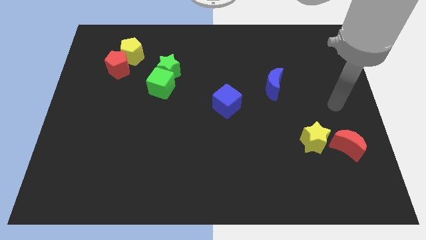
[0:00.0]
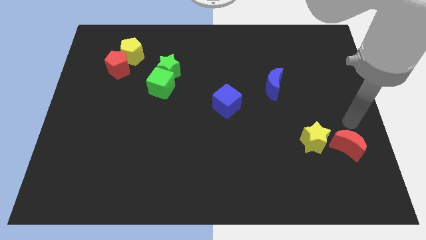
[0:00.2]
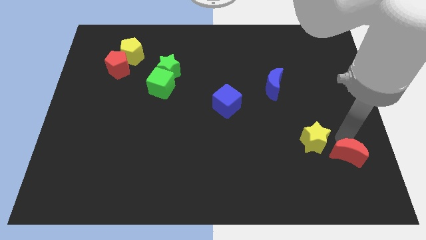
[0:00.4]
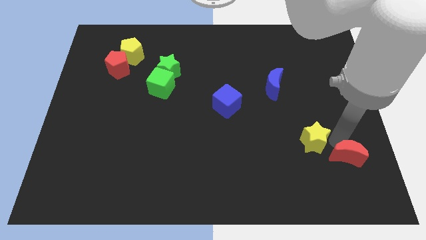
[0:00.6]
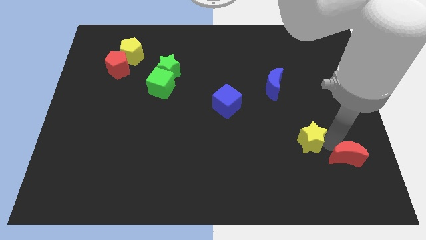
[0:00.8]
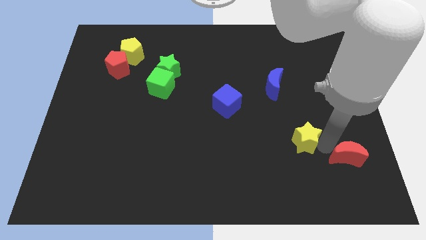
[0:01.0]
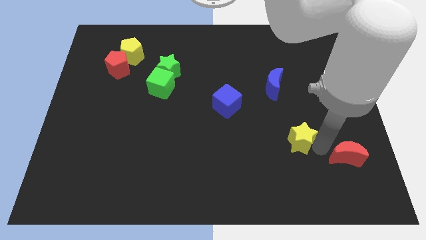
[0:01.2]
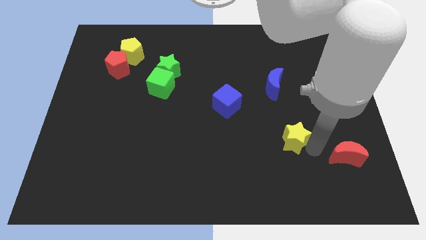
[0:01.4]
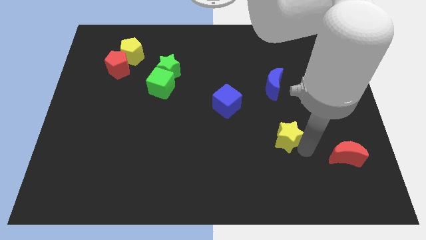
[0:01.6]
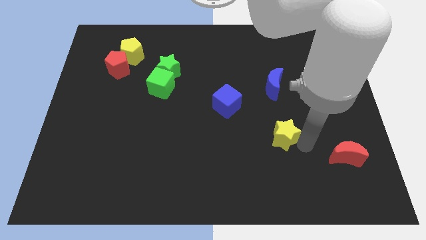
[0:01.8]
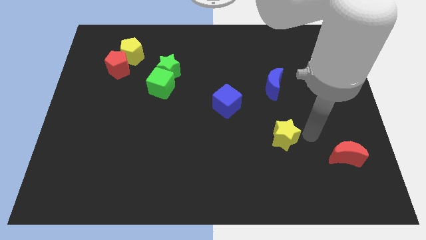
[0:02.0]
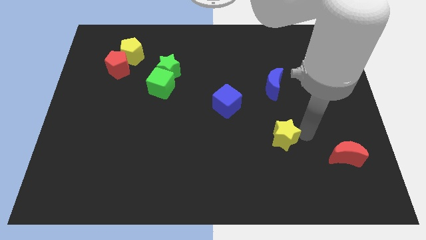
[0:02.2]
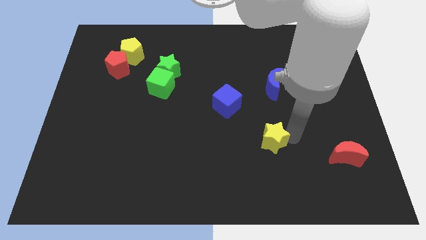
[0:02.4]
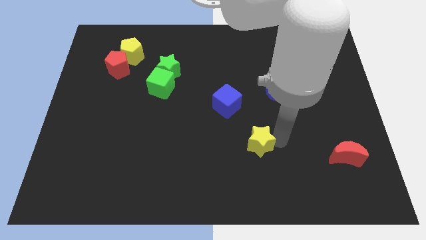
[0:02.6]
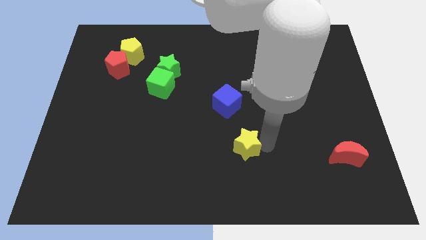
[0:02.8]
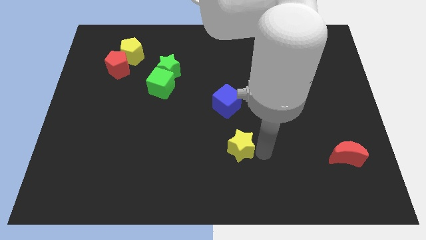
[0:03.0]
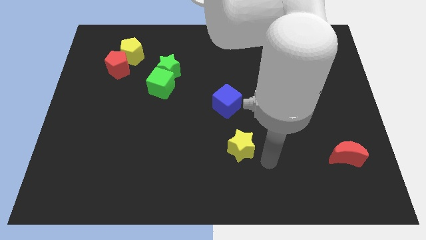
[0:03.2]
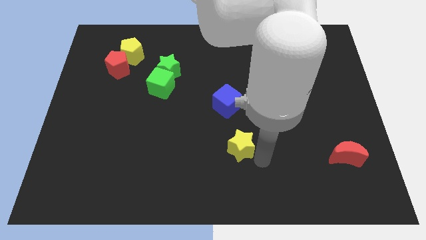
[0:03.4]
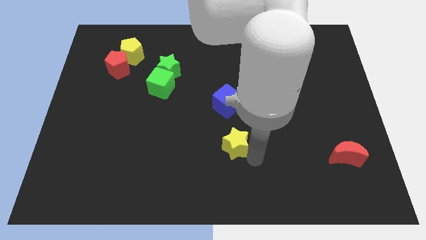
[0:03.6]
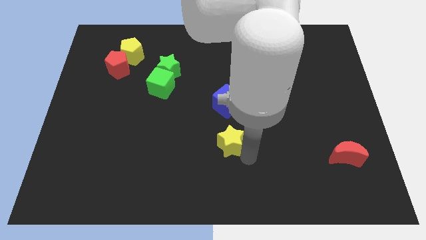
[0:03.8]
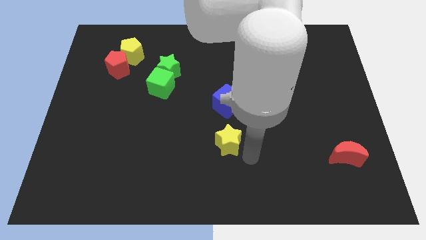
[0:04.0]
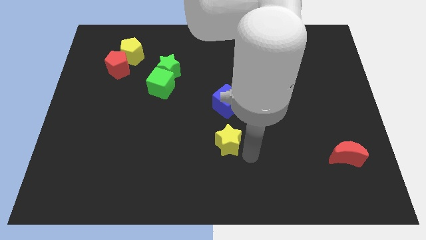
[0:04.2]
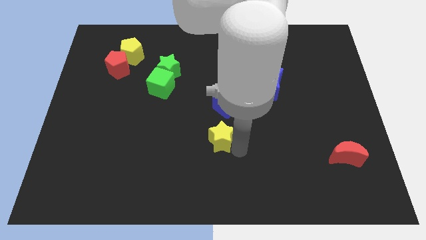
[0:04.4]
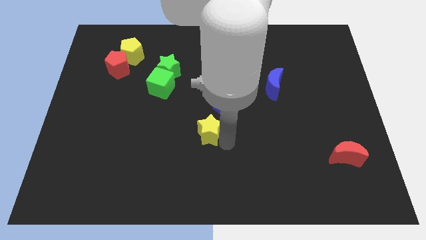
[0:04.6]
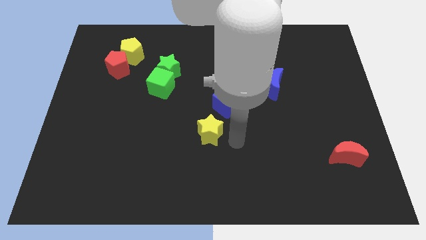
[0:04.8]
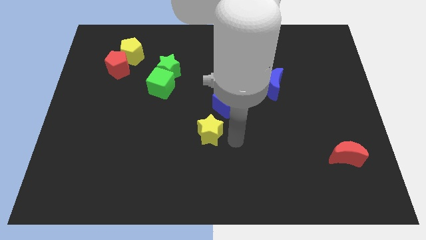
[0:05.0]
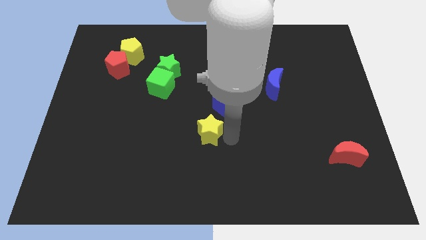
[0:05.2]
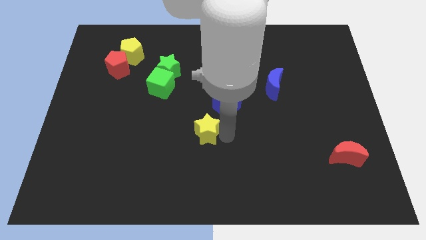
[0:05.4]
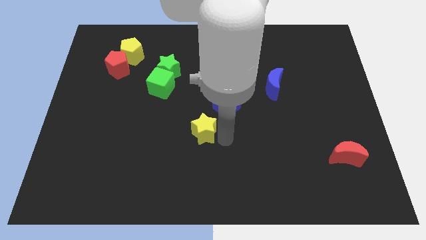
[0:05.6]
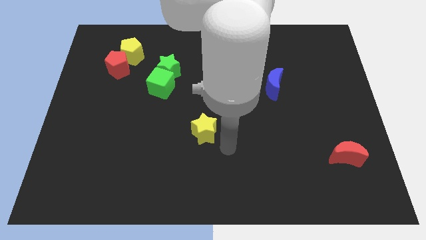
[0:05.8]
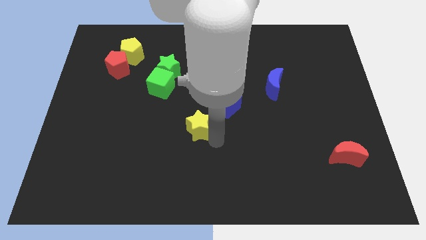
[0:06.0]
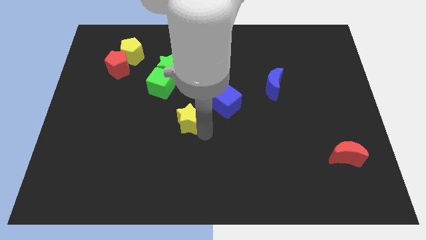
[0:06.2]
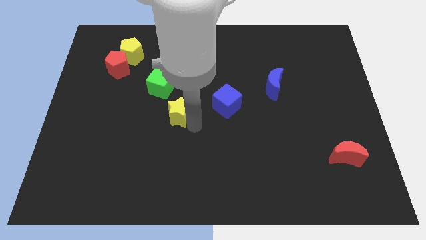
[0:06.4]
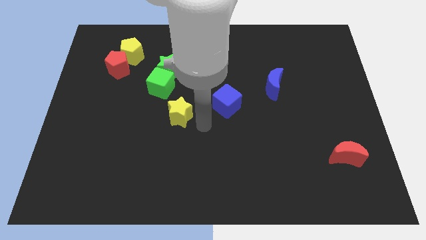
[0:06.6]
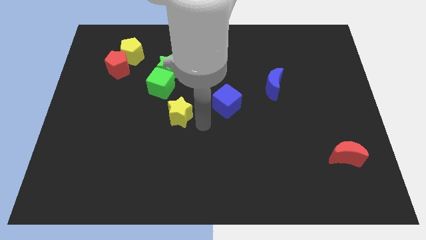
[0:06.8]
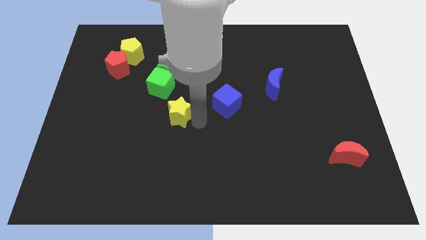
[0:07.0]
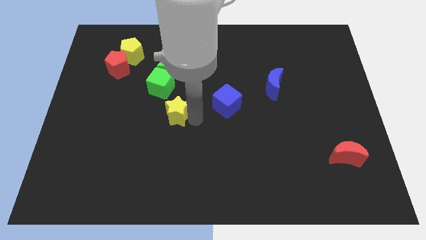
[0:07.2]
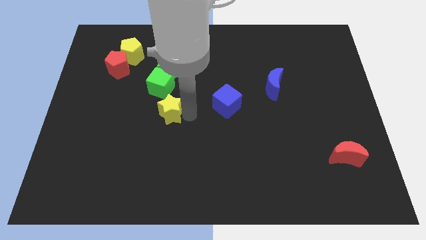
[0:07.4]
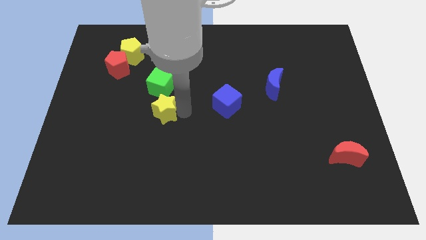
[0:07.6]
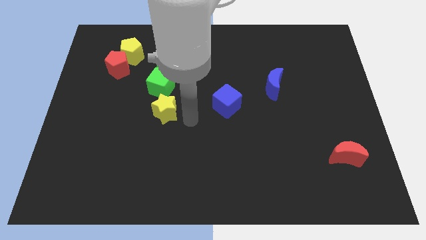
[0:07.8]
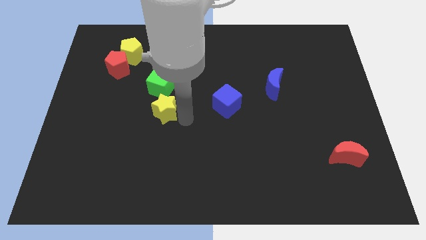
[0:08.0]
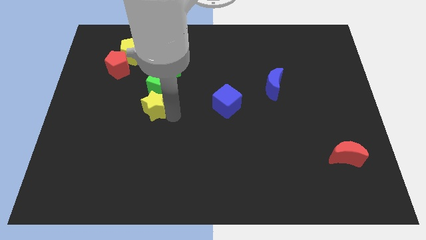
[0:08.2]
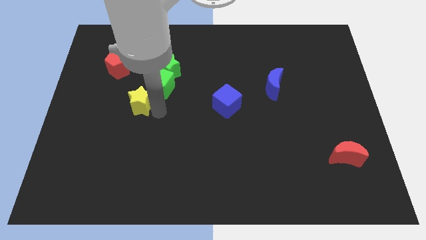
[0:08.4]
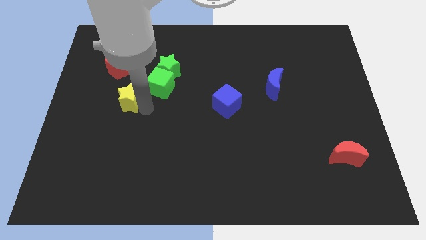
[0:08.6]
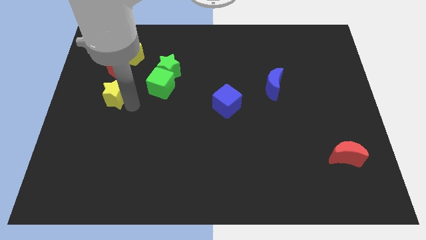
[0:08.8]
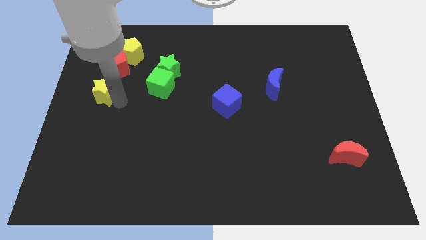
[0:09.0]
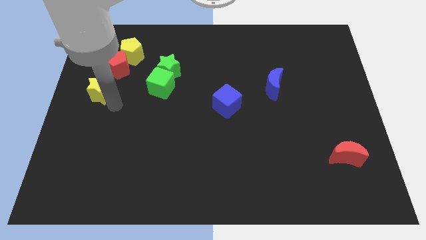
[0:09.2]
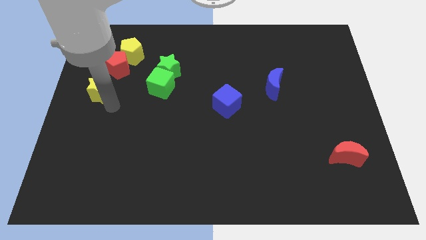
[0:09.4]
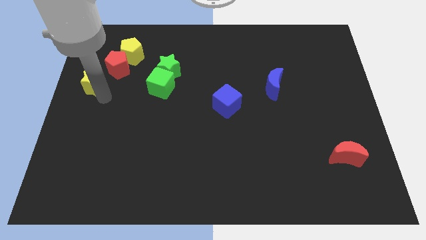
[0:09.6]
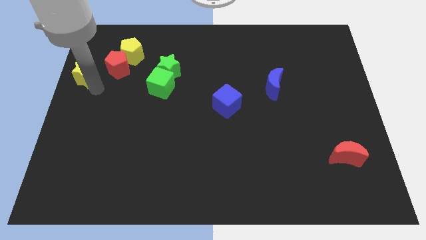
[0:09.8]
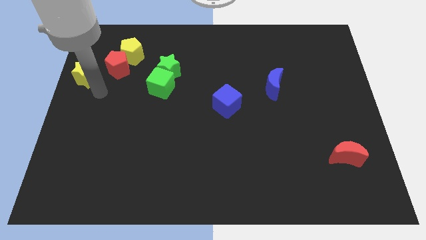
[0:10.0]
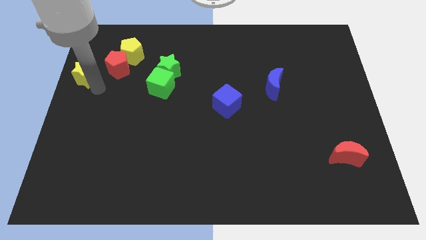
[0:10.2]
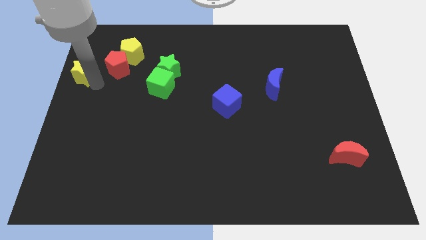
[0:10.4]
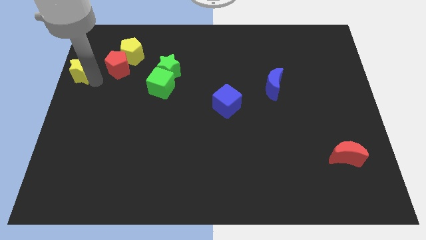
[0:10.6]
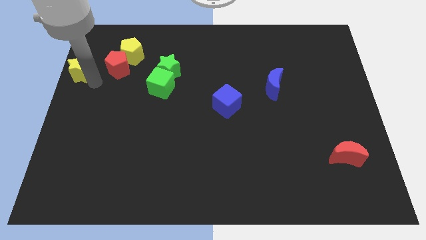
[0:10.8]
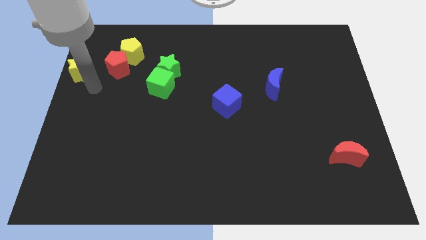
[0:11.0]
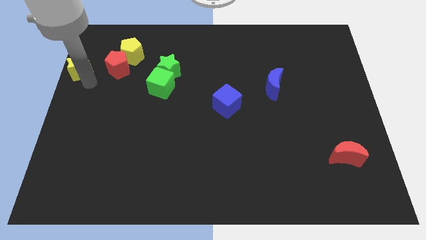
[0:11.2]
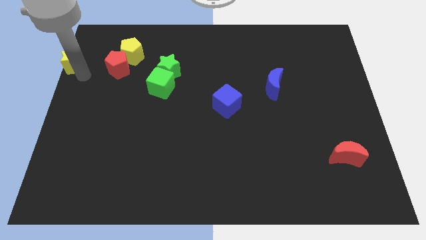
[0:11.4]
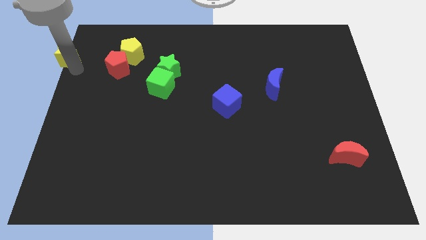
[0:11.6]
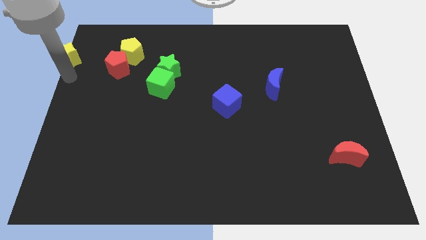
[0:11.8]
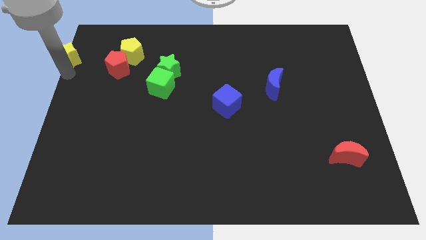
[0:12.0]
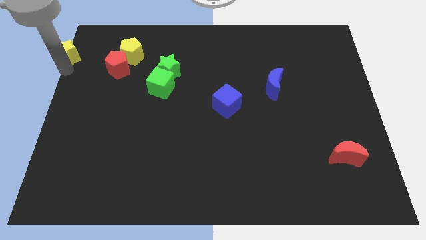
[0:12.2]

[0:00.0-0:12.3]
push the yellow star to the top left of the board

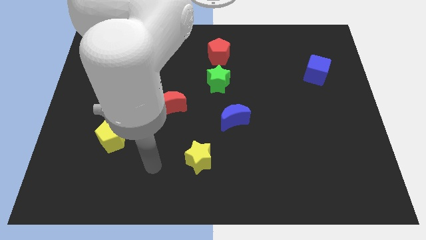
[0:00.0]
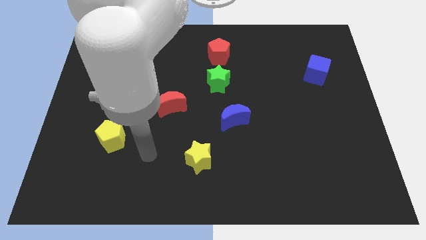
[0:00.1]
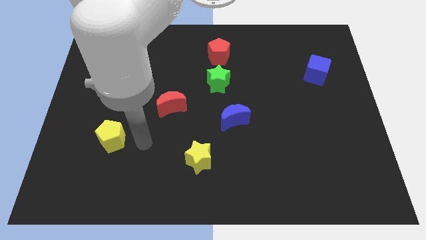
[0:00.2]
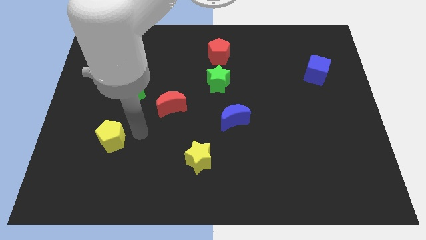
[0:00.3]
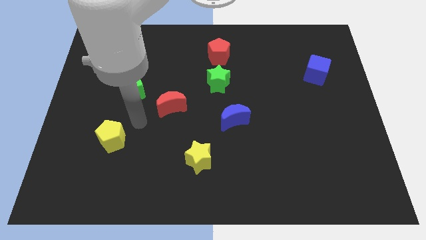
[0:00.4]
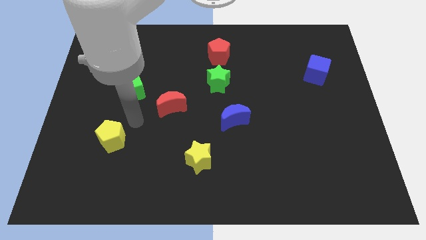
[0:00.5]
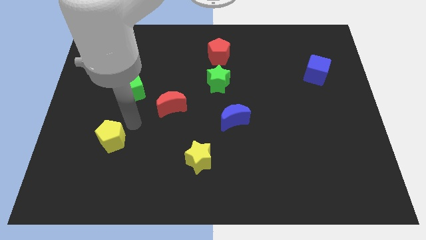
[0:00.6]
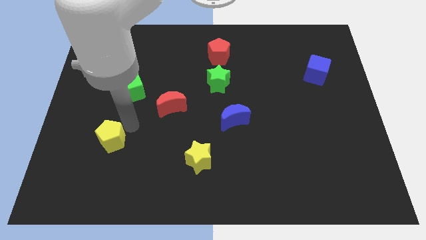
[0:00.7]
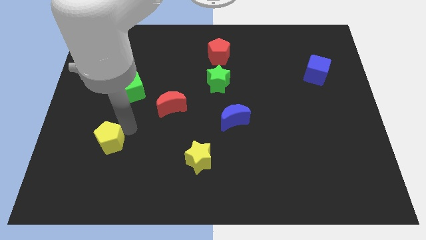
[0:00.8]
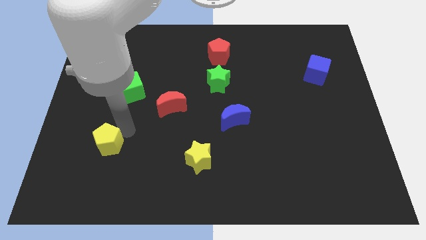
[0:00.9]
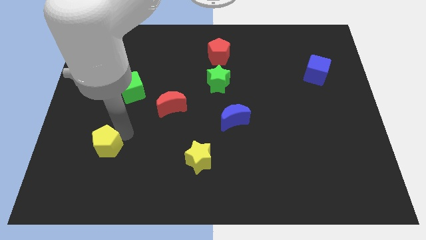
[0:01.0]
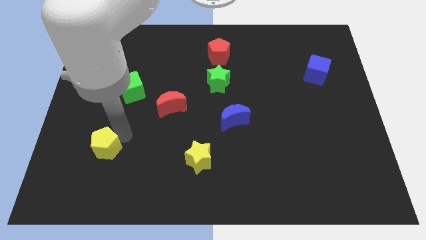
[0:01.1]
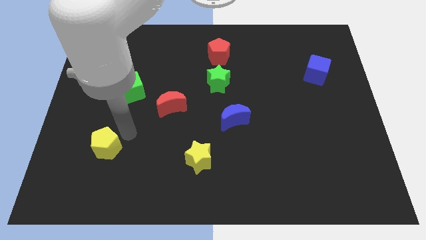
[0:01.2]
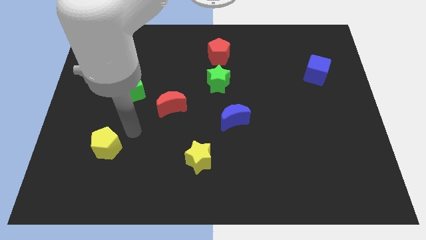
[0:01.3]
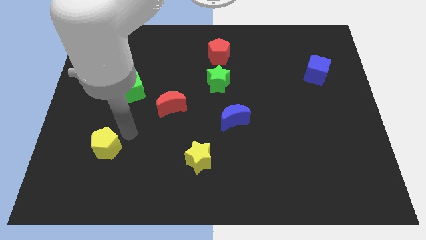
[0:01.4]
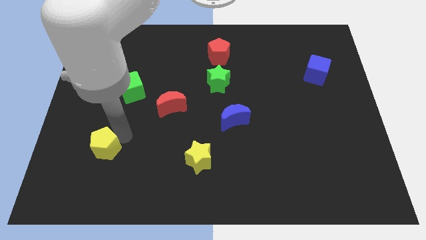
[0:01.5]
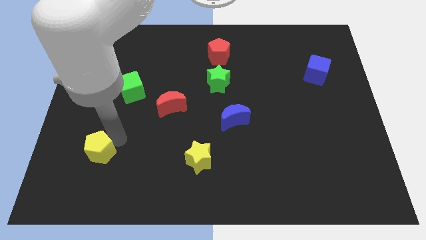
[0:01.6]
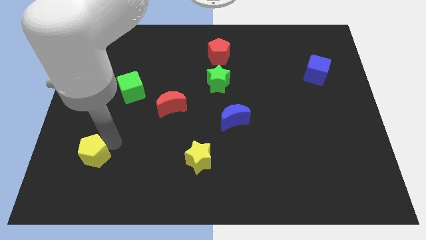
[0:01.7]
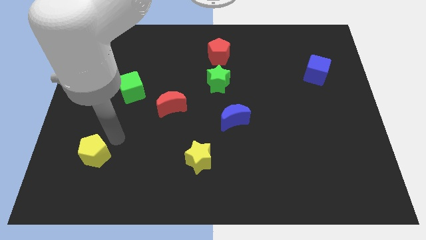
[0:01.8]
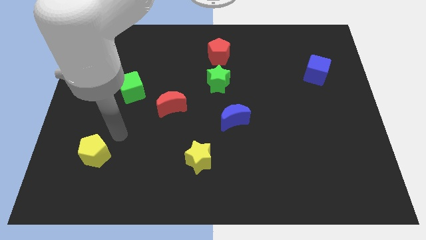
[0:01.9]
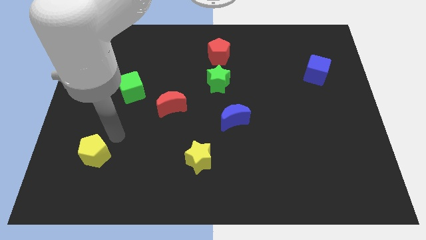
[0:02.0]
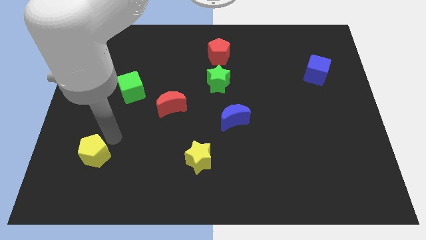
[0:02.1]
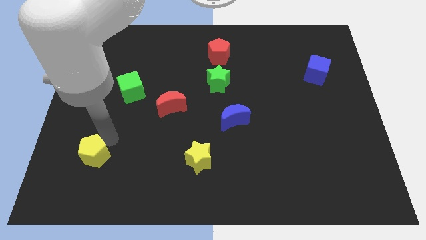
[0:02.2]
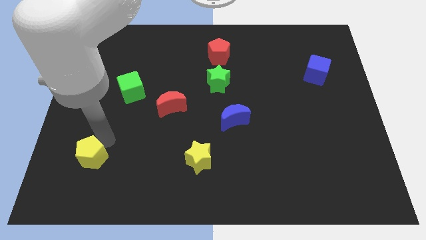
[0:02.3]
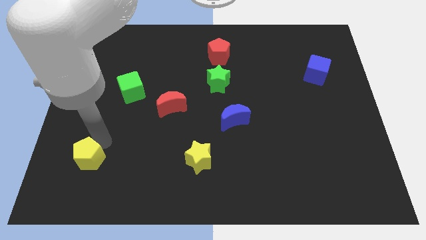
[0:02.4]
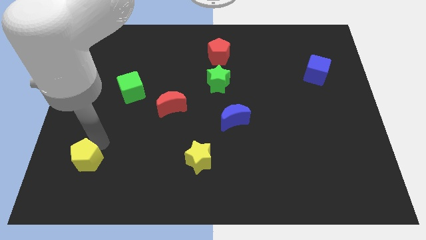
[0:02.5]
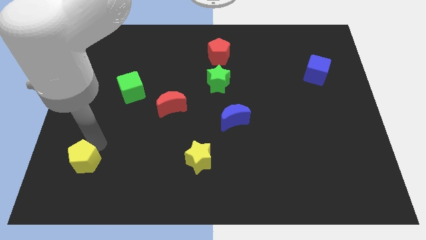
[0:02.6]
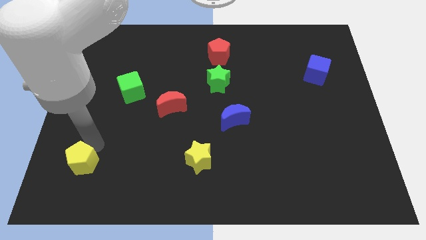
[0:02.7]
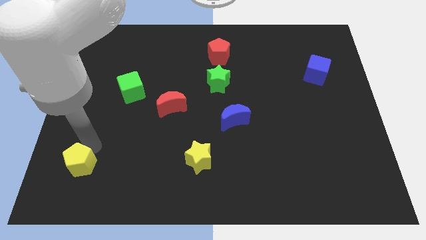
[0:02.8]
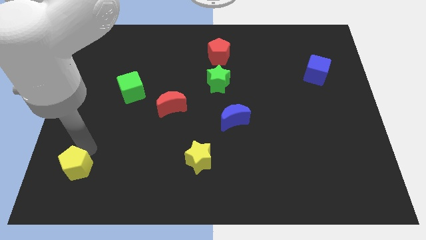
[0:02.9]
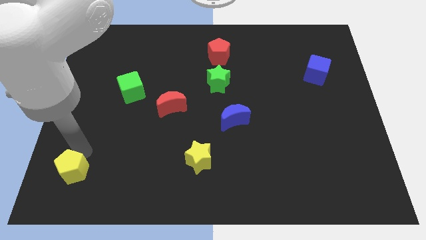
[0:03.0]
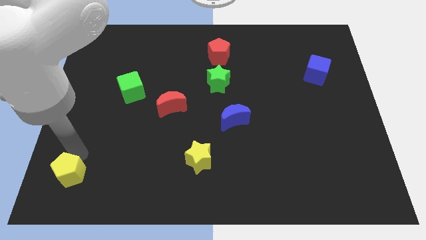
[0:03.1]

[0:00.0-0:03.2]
put the yellow pentagon to the bottom left corner
